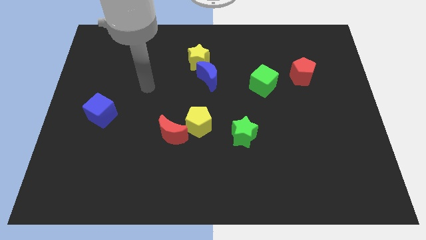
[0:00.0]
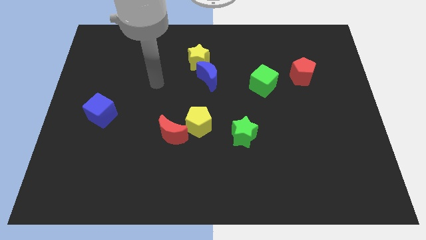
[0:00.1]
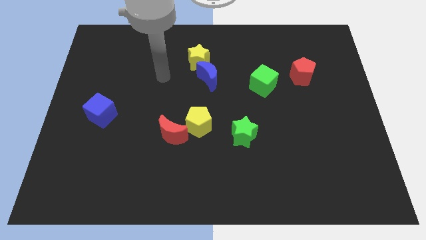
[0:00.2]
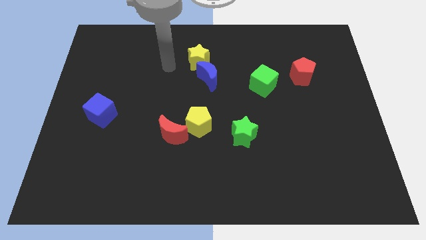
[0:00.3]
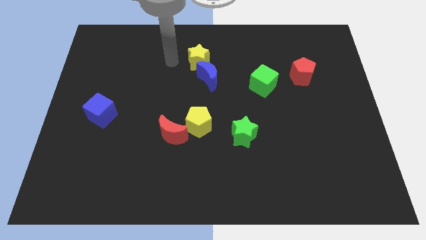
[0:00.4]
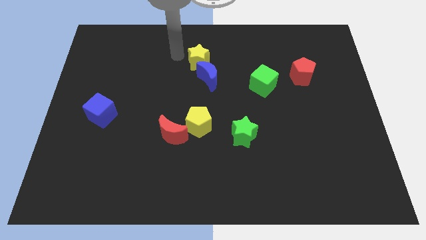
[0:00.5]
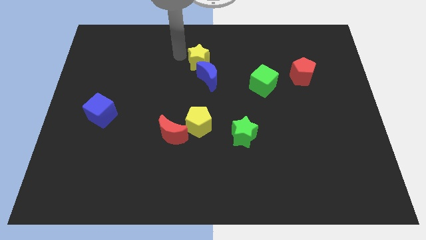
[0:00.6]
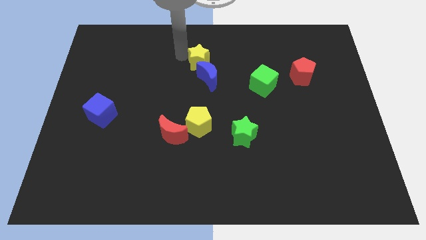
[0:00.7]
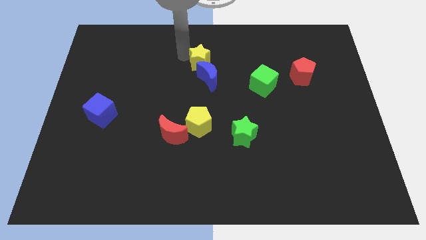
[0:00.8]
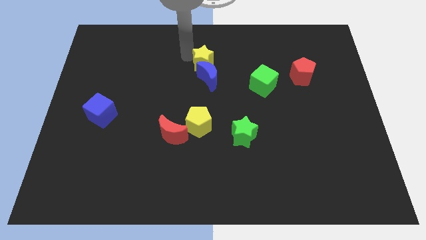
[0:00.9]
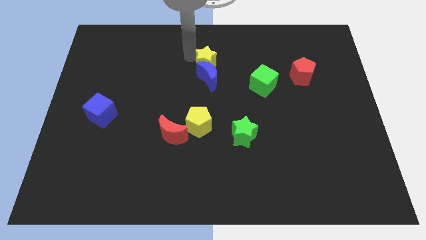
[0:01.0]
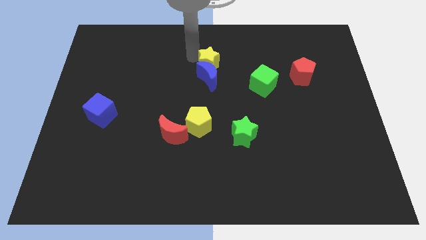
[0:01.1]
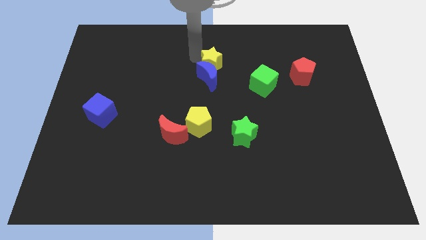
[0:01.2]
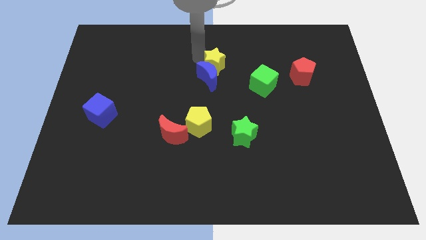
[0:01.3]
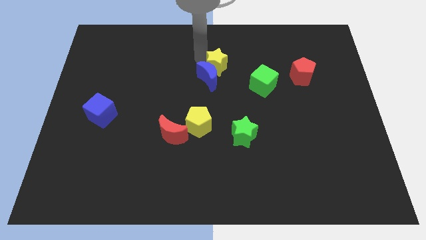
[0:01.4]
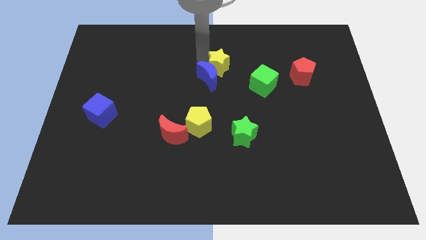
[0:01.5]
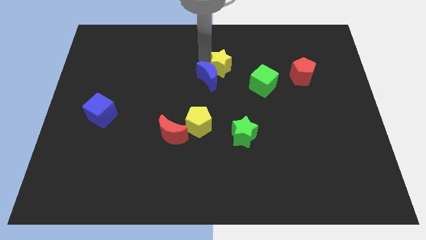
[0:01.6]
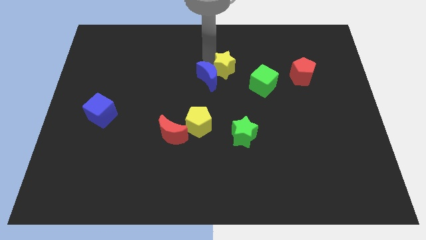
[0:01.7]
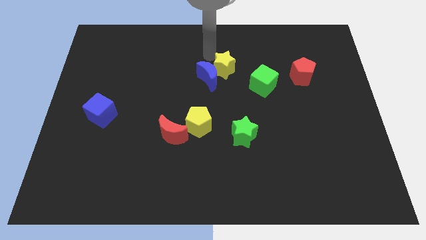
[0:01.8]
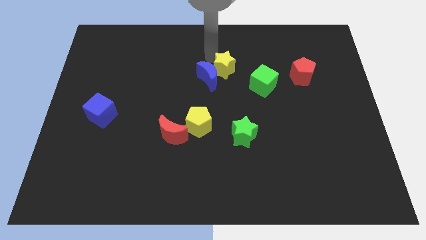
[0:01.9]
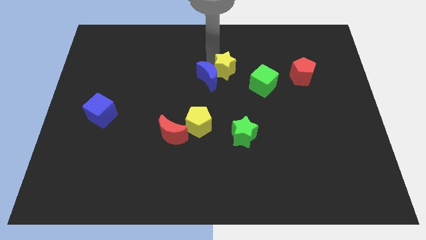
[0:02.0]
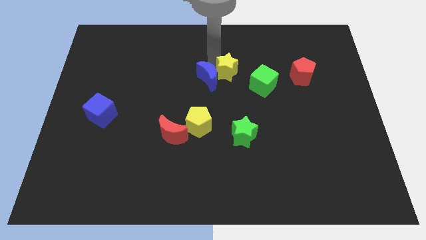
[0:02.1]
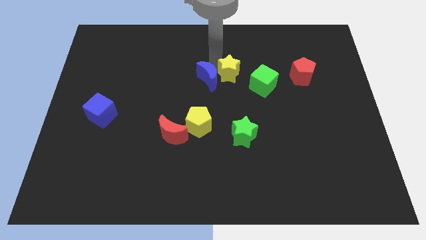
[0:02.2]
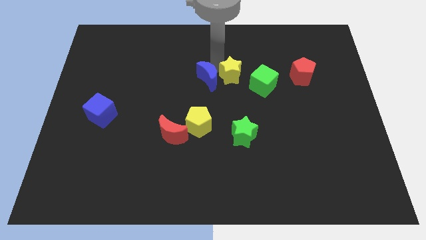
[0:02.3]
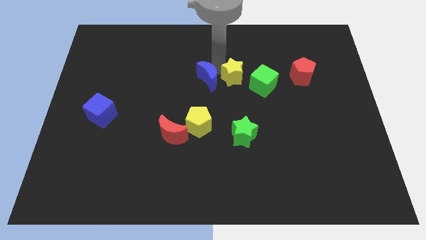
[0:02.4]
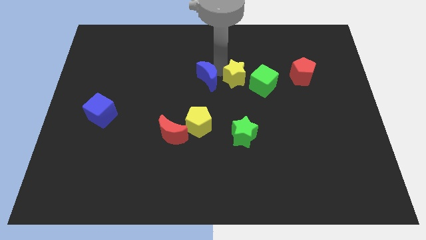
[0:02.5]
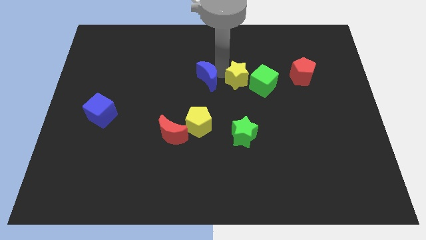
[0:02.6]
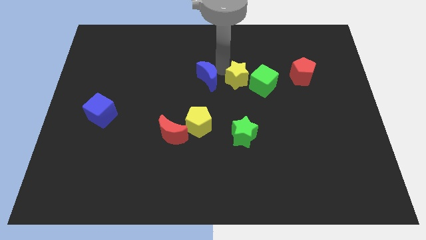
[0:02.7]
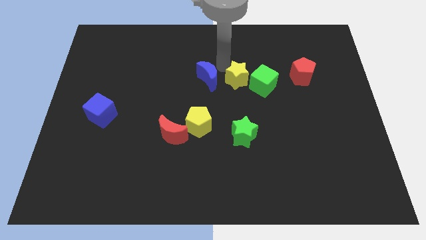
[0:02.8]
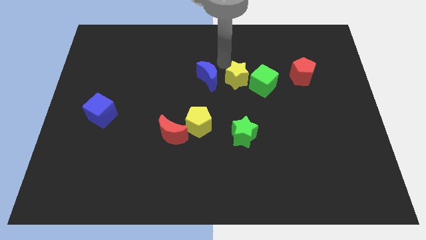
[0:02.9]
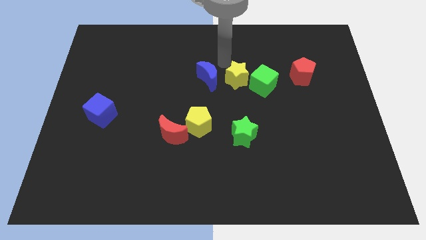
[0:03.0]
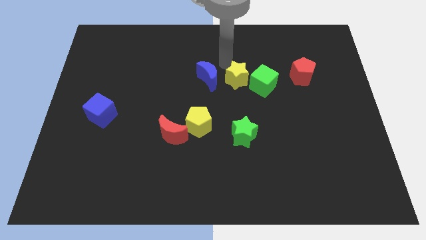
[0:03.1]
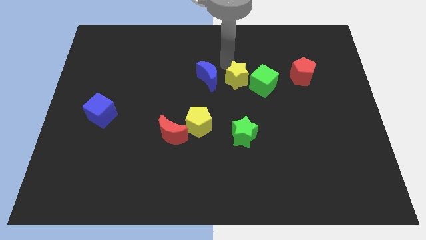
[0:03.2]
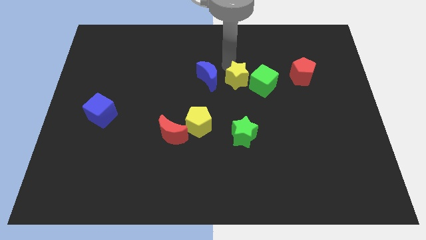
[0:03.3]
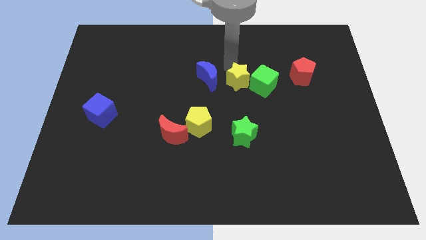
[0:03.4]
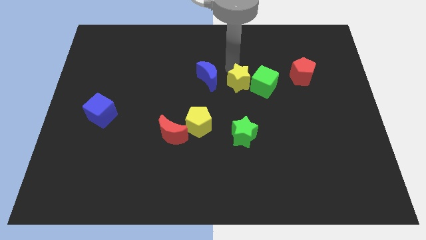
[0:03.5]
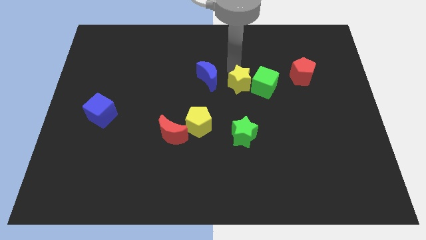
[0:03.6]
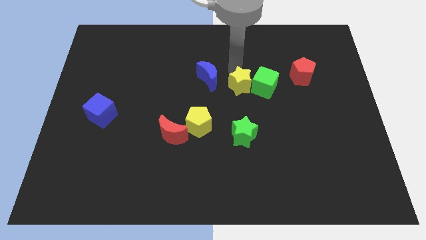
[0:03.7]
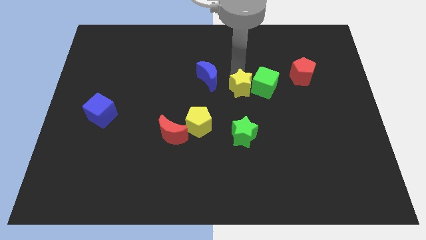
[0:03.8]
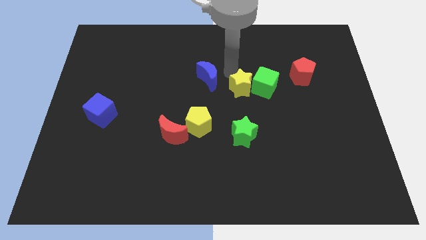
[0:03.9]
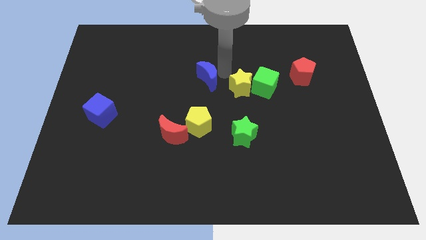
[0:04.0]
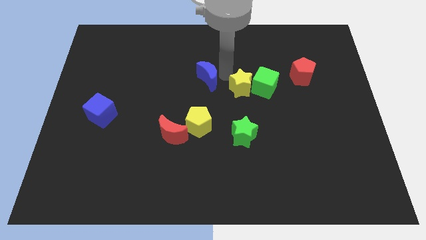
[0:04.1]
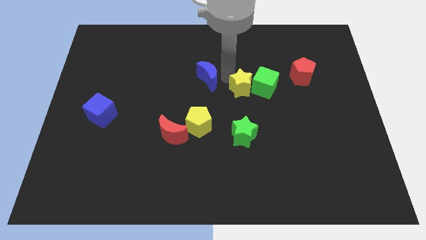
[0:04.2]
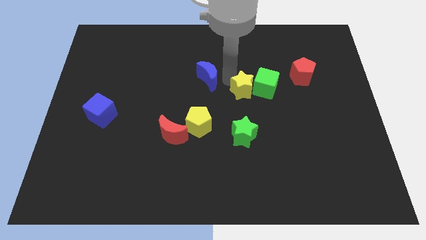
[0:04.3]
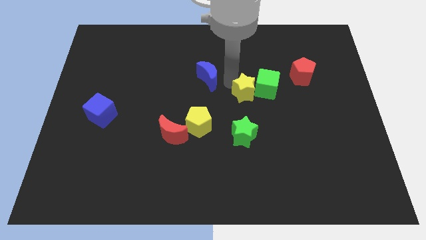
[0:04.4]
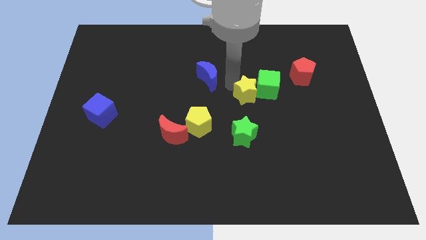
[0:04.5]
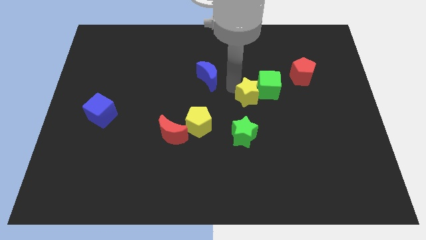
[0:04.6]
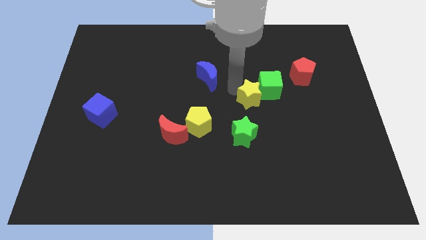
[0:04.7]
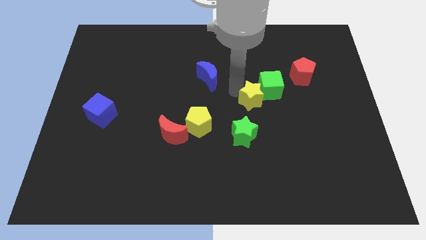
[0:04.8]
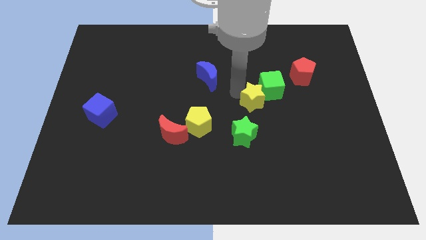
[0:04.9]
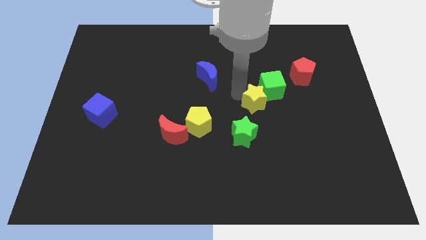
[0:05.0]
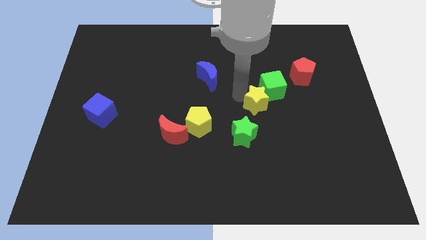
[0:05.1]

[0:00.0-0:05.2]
push the yellow star downwards and then to the right

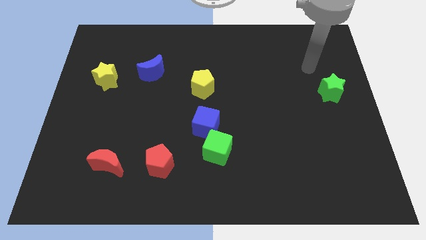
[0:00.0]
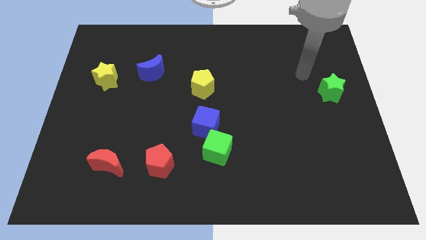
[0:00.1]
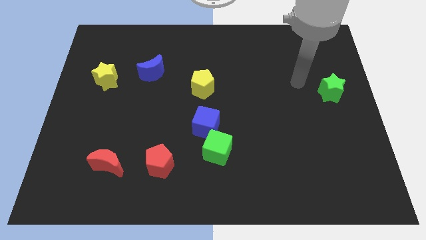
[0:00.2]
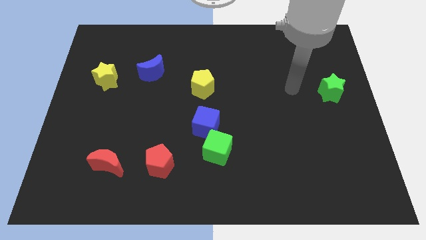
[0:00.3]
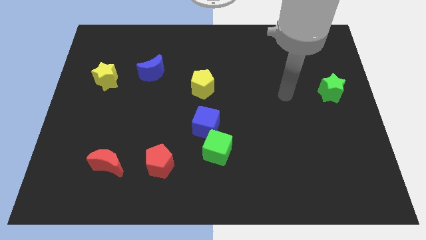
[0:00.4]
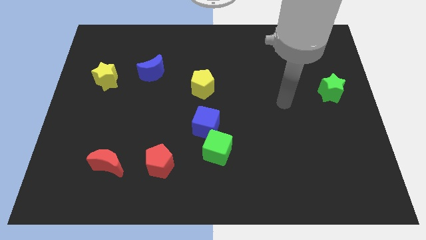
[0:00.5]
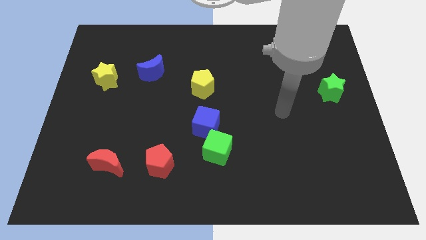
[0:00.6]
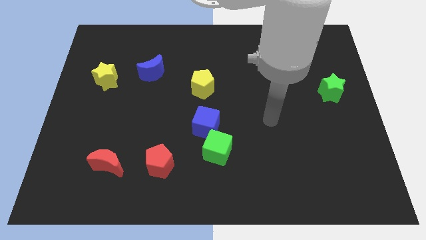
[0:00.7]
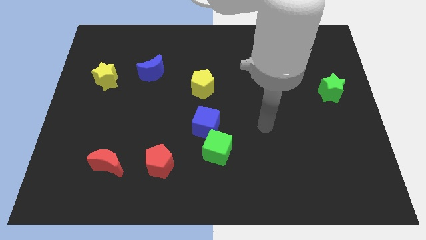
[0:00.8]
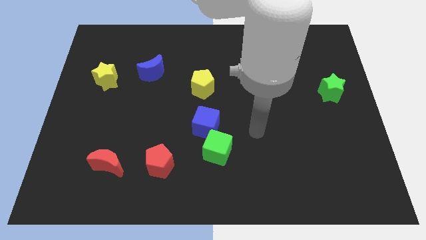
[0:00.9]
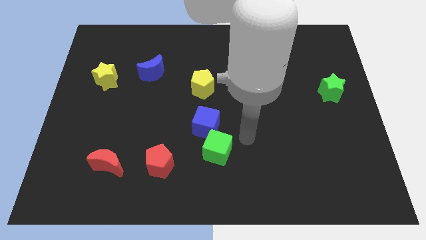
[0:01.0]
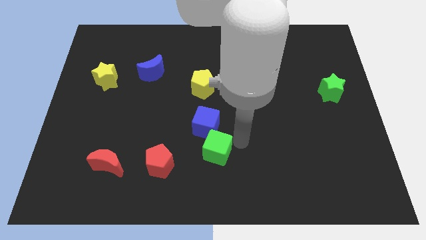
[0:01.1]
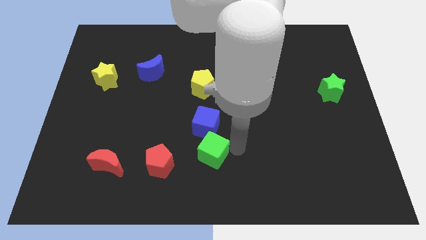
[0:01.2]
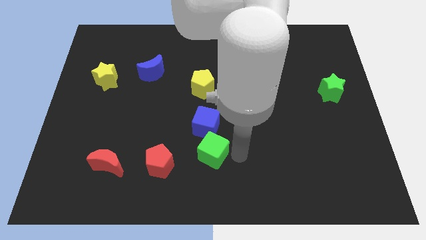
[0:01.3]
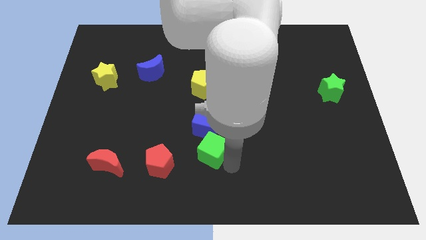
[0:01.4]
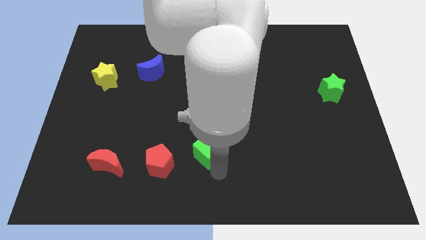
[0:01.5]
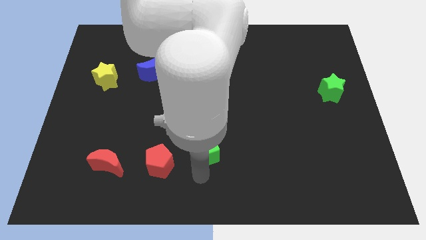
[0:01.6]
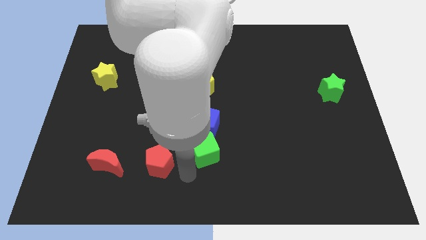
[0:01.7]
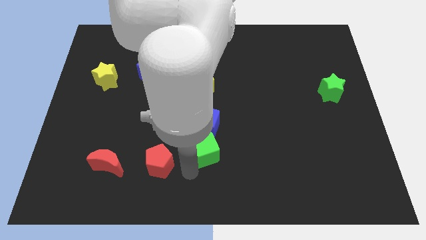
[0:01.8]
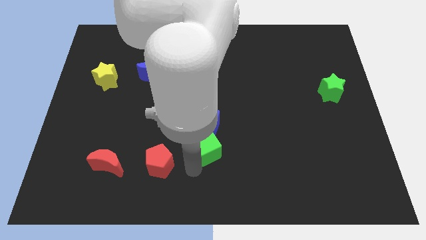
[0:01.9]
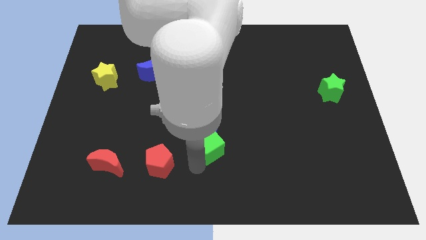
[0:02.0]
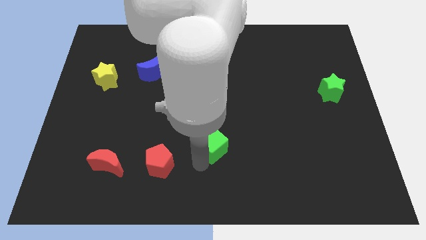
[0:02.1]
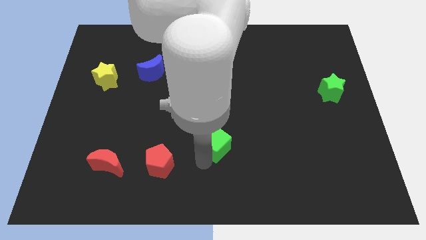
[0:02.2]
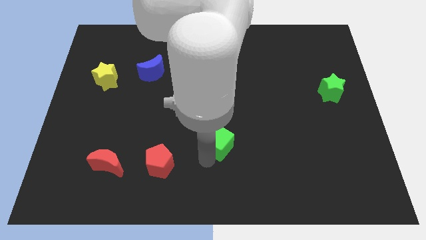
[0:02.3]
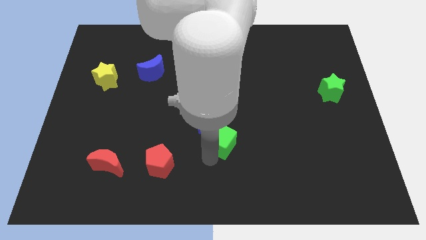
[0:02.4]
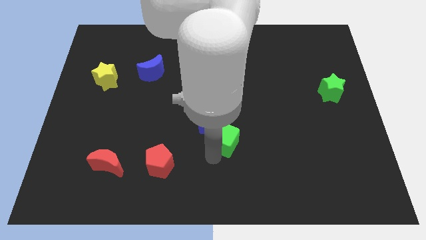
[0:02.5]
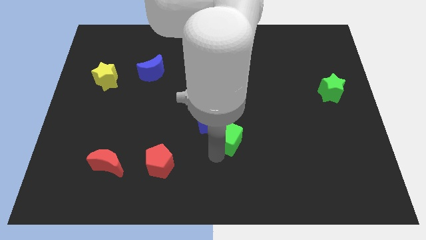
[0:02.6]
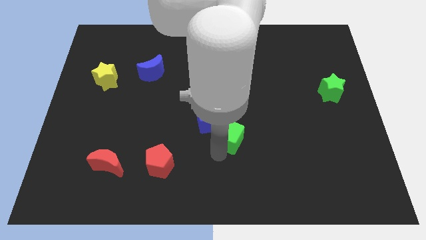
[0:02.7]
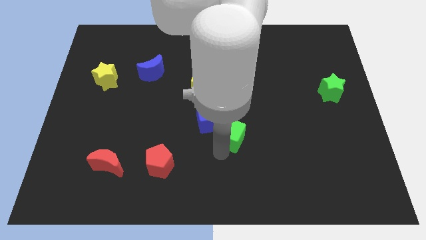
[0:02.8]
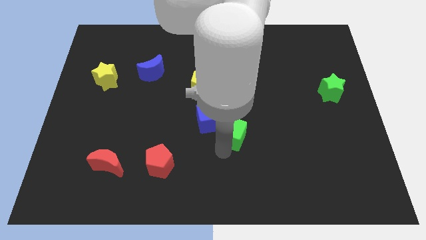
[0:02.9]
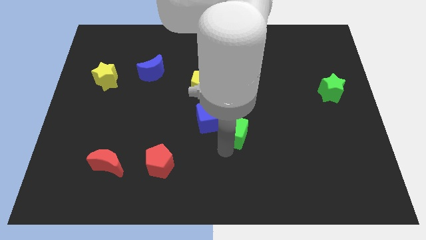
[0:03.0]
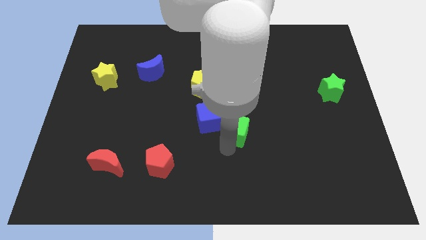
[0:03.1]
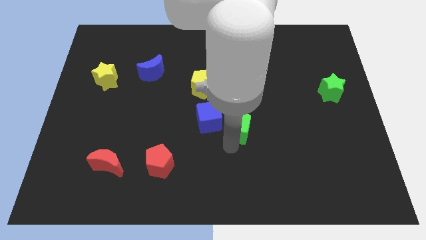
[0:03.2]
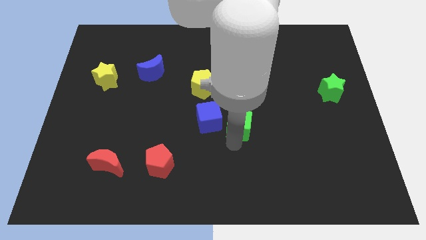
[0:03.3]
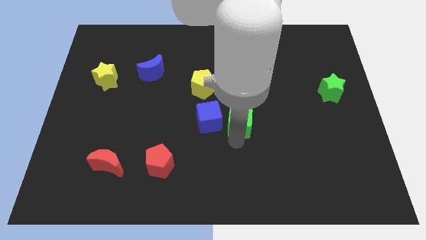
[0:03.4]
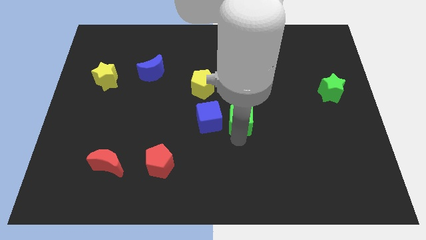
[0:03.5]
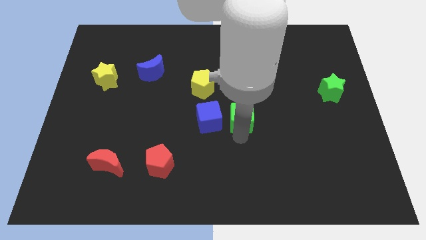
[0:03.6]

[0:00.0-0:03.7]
move the green cube up a bit
